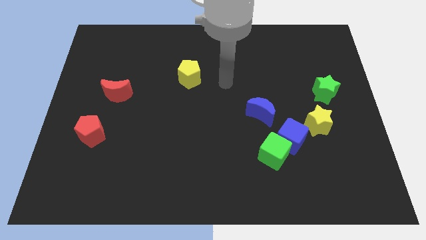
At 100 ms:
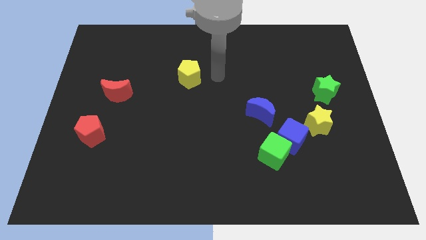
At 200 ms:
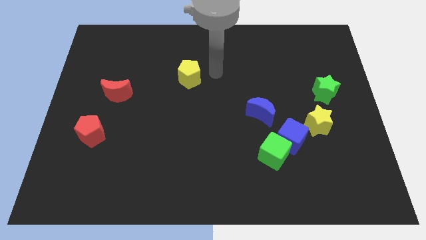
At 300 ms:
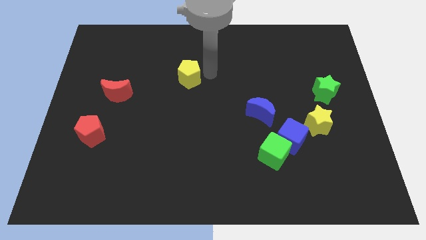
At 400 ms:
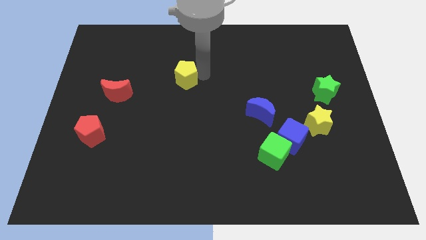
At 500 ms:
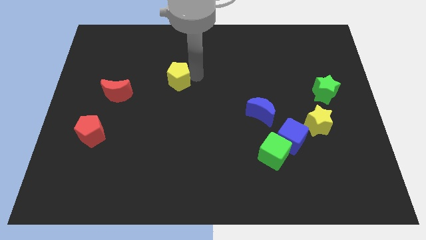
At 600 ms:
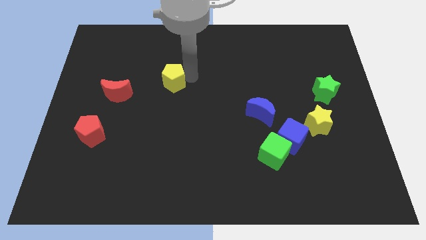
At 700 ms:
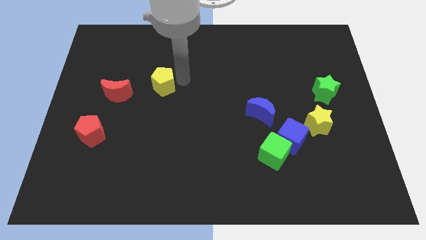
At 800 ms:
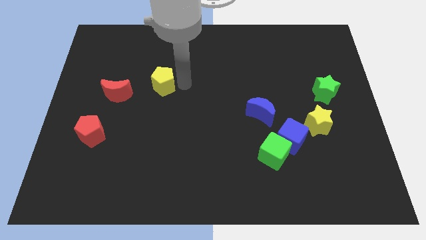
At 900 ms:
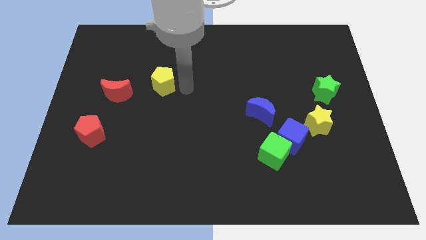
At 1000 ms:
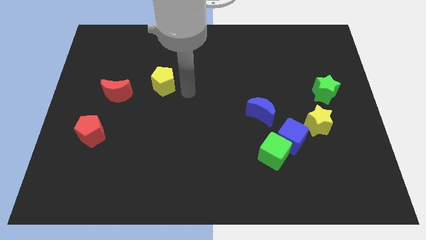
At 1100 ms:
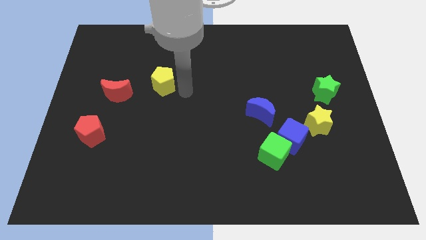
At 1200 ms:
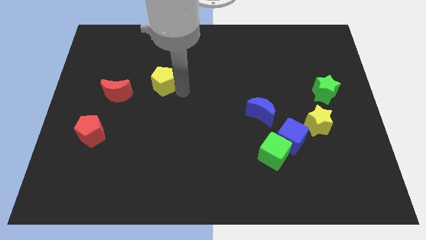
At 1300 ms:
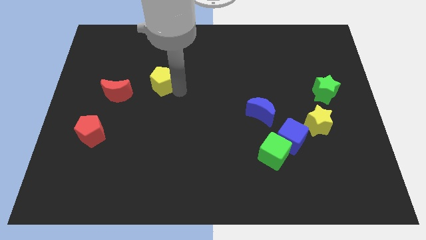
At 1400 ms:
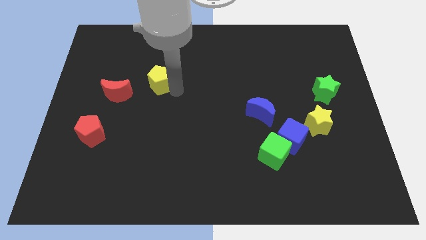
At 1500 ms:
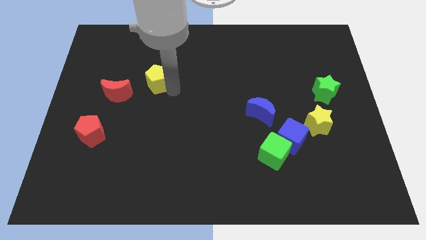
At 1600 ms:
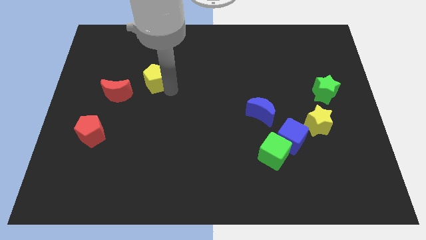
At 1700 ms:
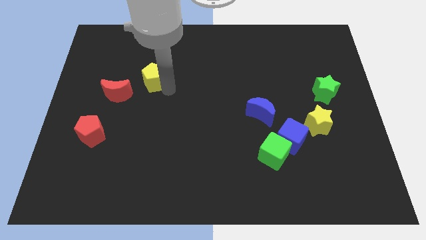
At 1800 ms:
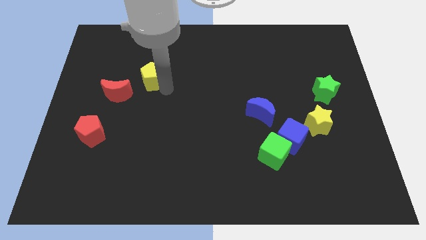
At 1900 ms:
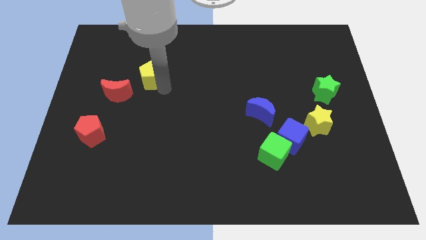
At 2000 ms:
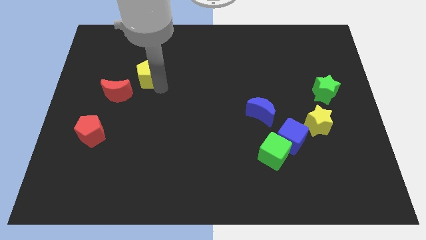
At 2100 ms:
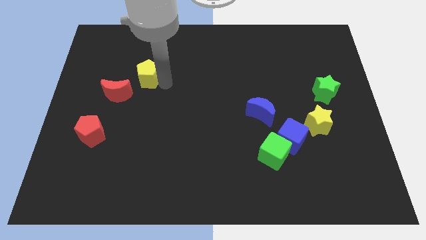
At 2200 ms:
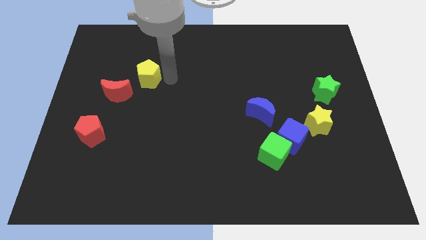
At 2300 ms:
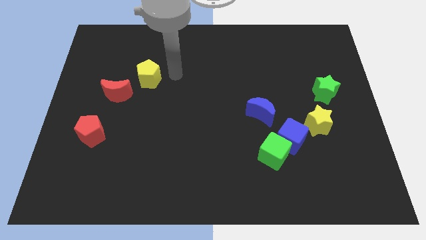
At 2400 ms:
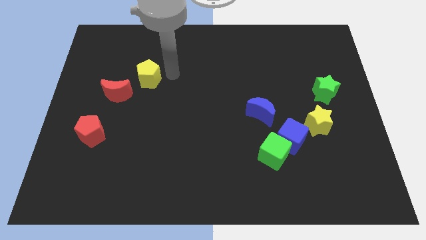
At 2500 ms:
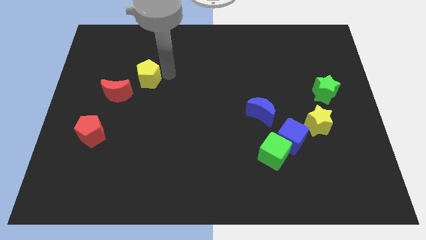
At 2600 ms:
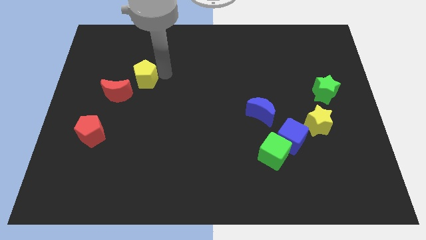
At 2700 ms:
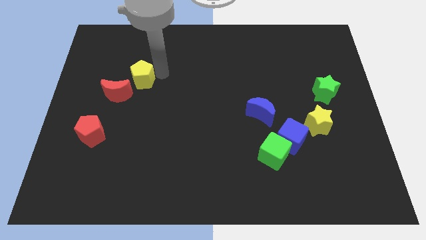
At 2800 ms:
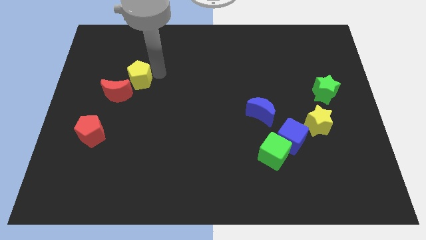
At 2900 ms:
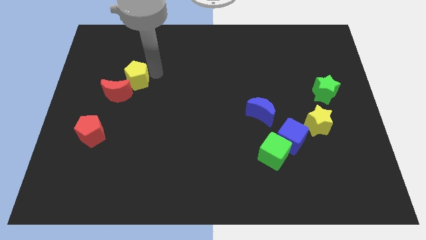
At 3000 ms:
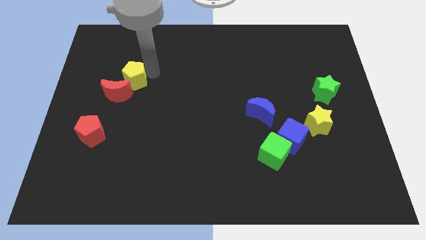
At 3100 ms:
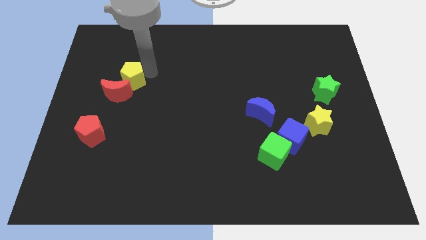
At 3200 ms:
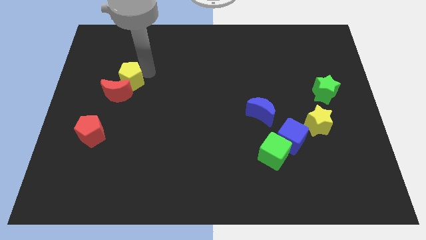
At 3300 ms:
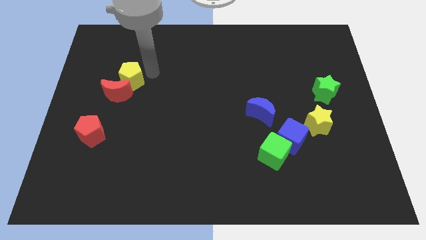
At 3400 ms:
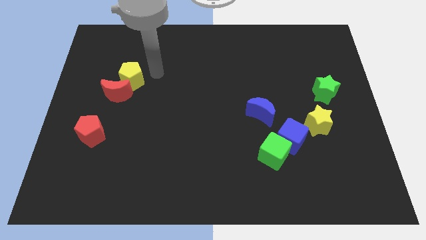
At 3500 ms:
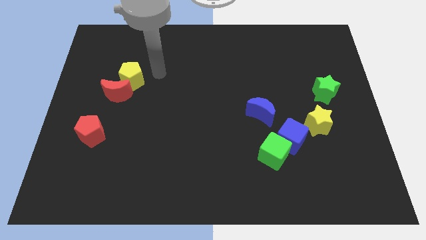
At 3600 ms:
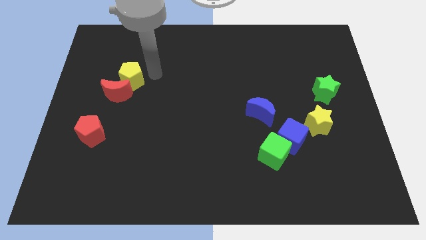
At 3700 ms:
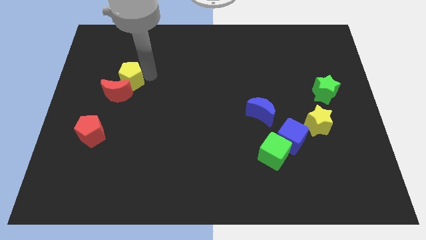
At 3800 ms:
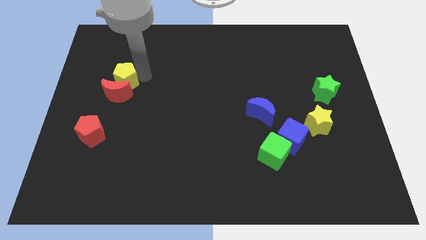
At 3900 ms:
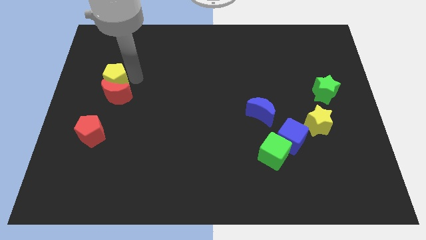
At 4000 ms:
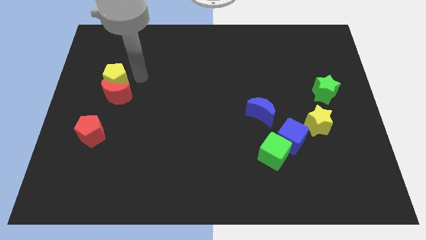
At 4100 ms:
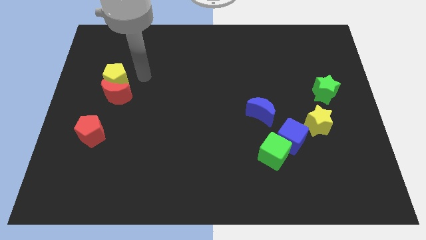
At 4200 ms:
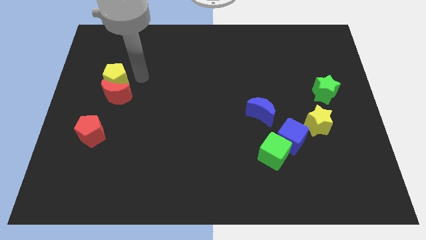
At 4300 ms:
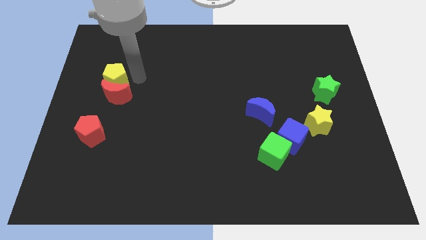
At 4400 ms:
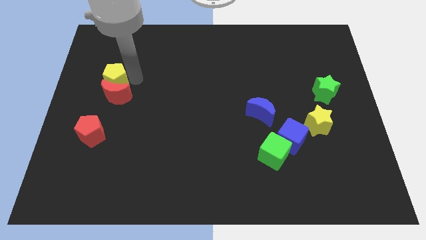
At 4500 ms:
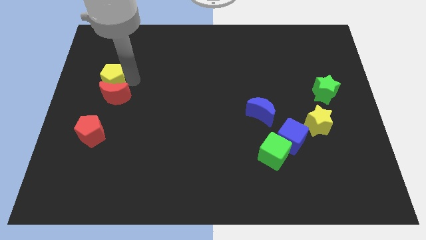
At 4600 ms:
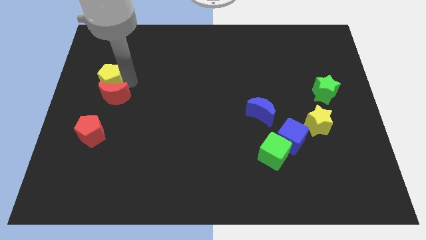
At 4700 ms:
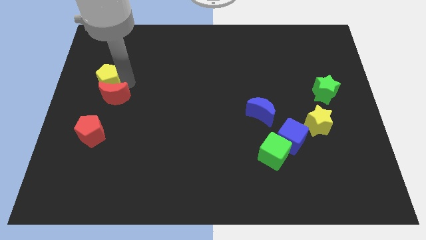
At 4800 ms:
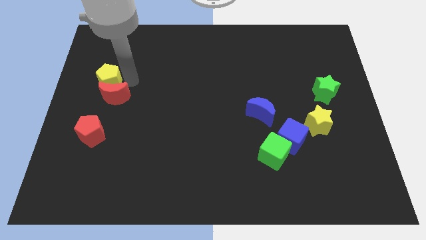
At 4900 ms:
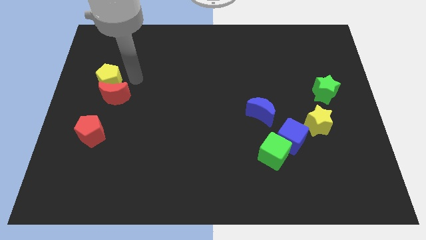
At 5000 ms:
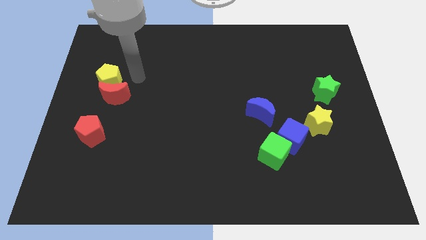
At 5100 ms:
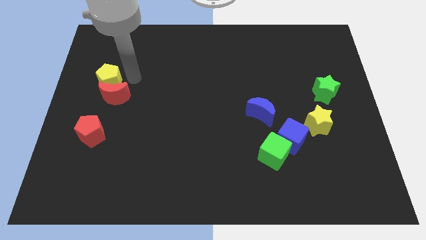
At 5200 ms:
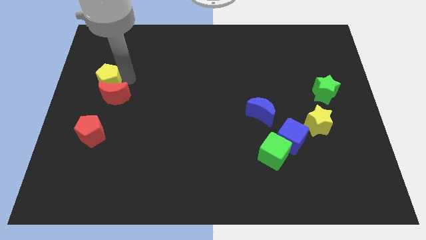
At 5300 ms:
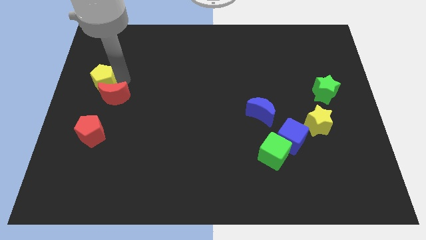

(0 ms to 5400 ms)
push the yellow pentagon to the left side of the board

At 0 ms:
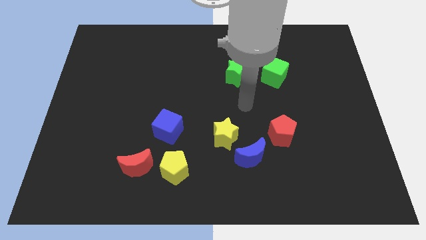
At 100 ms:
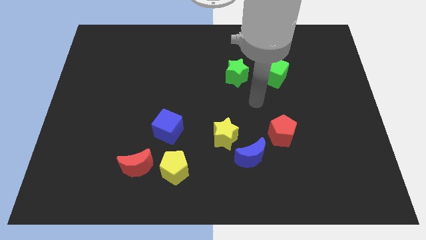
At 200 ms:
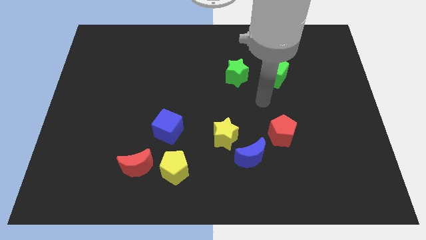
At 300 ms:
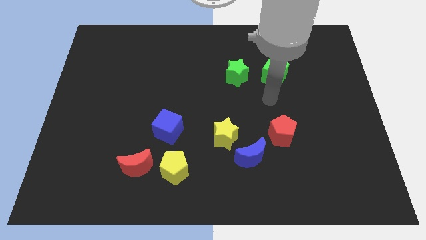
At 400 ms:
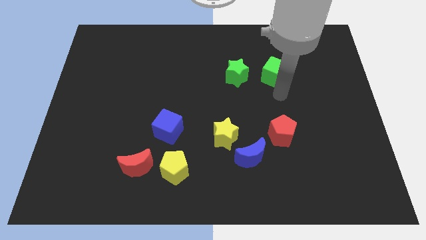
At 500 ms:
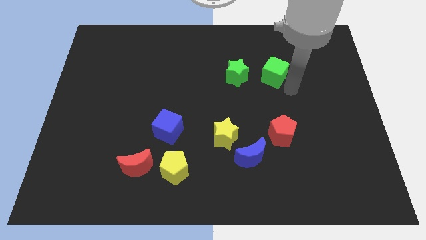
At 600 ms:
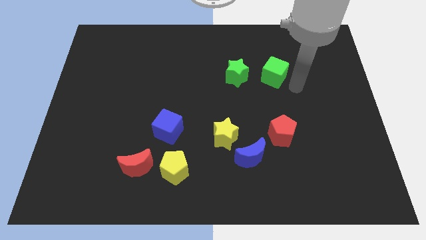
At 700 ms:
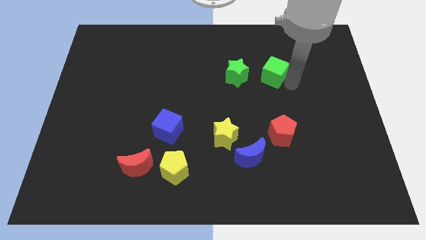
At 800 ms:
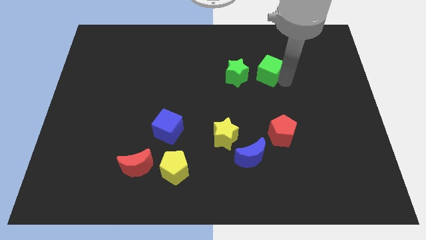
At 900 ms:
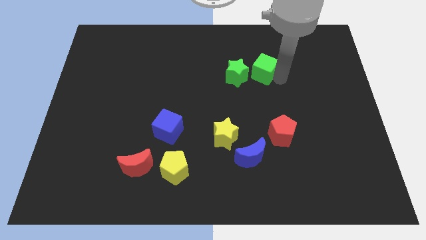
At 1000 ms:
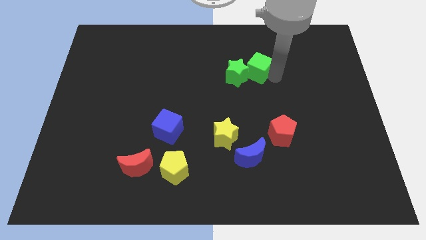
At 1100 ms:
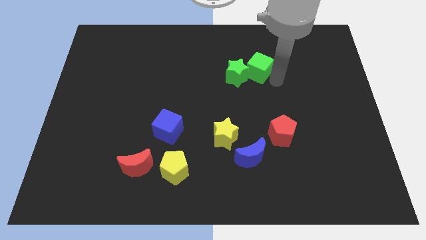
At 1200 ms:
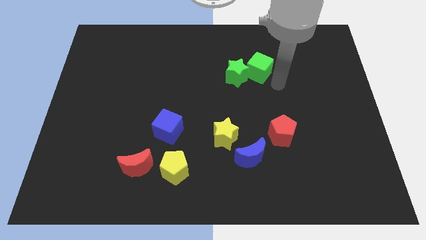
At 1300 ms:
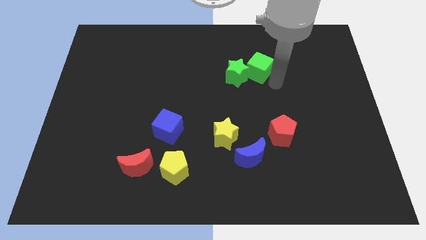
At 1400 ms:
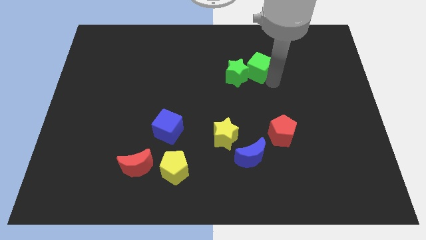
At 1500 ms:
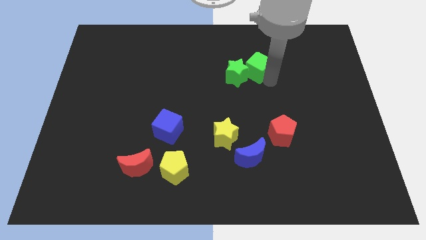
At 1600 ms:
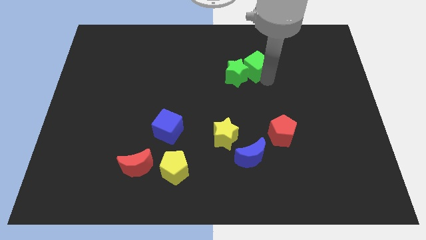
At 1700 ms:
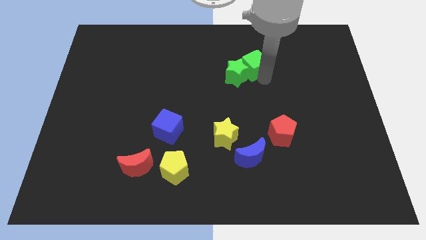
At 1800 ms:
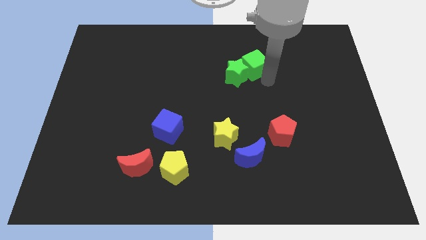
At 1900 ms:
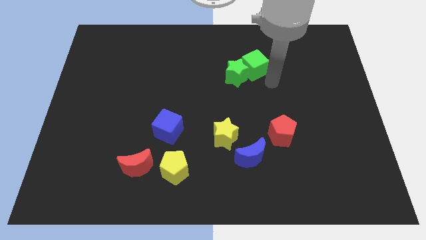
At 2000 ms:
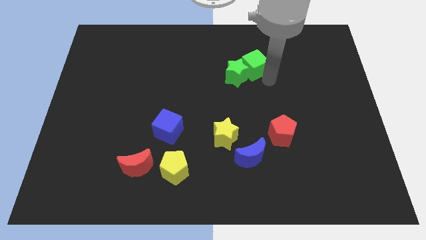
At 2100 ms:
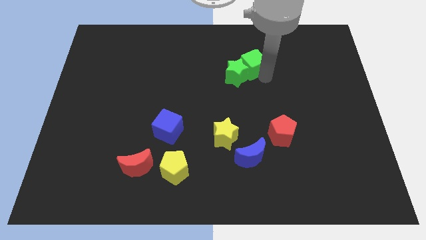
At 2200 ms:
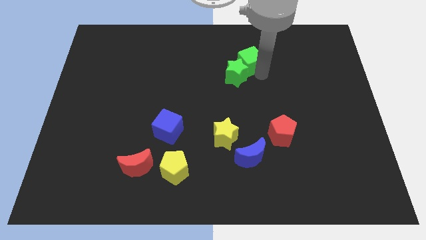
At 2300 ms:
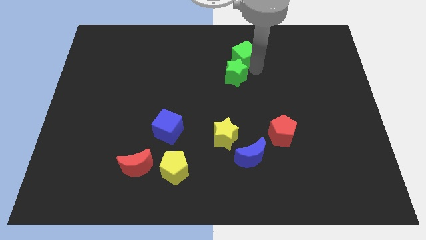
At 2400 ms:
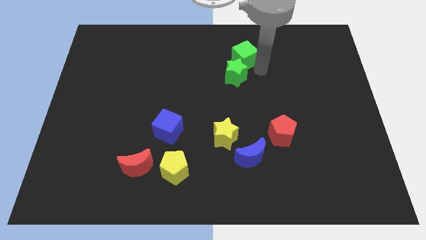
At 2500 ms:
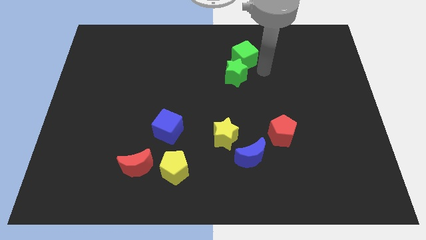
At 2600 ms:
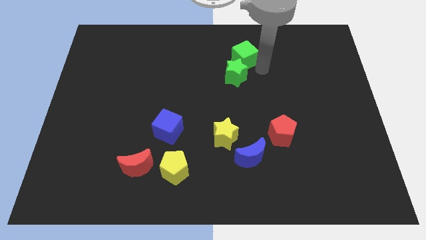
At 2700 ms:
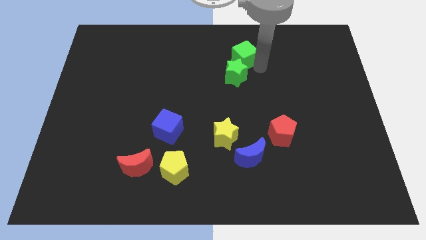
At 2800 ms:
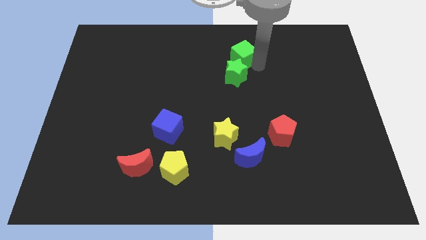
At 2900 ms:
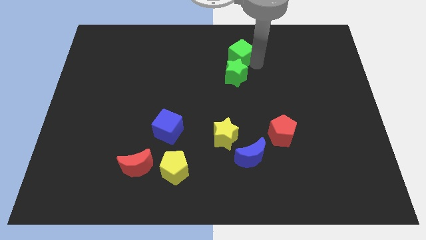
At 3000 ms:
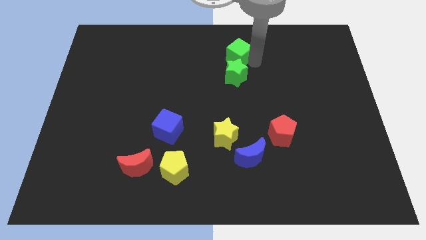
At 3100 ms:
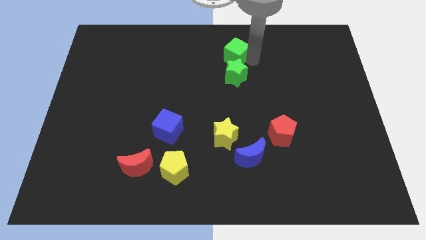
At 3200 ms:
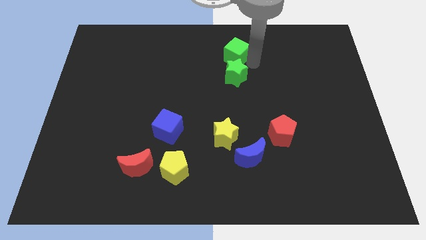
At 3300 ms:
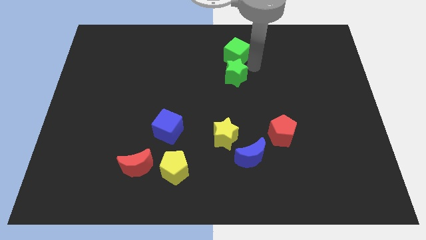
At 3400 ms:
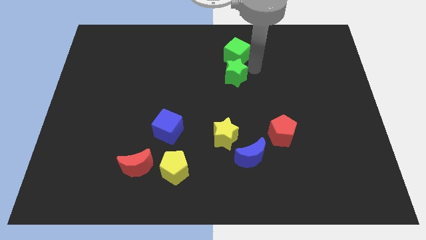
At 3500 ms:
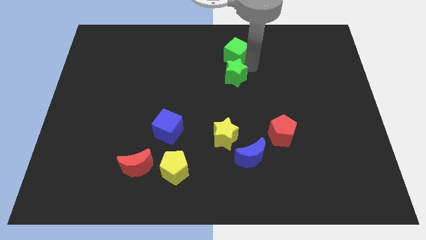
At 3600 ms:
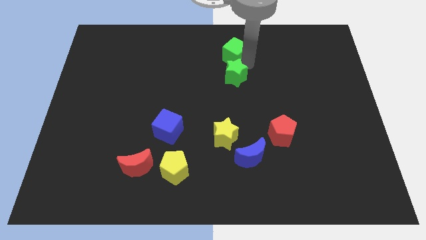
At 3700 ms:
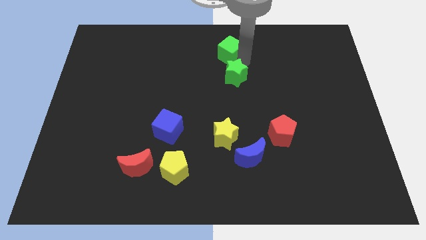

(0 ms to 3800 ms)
slide the green cube to the towards your base
